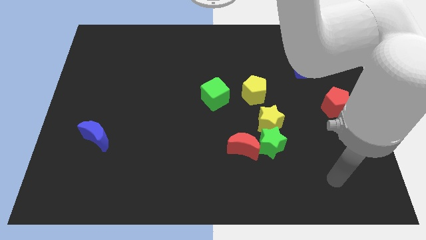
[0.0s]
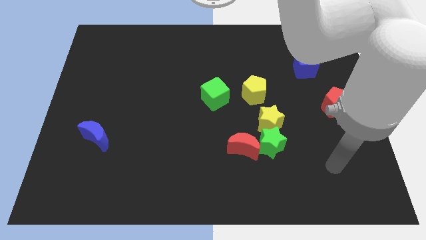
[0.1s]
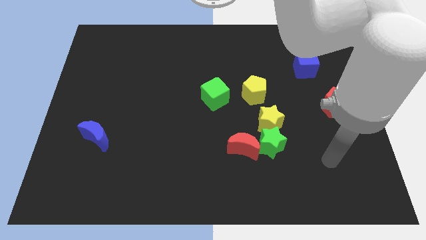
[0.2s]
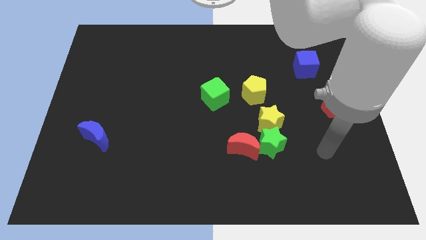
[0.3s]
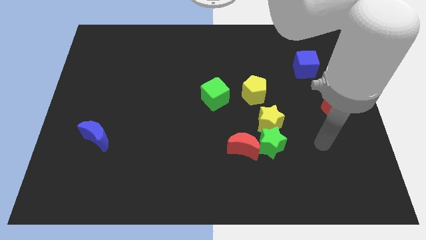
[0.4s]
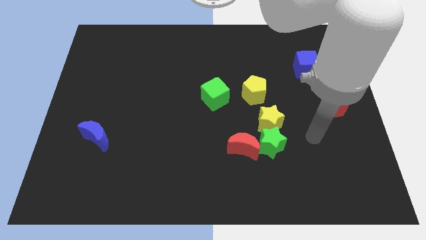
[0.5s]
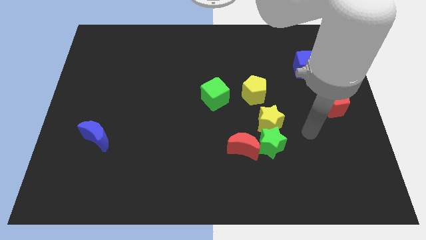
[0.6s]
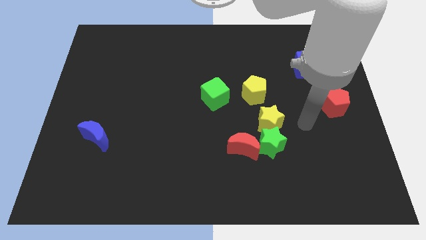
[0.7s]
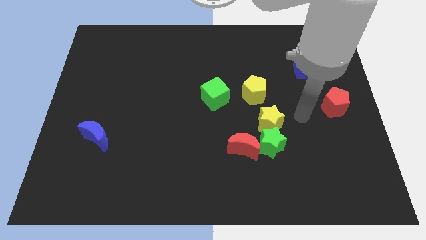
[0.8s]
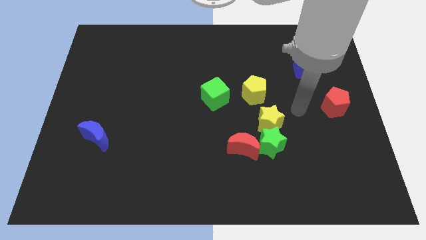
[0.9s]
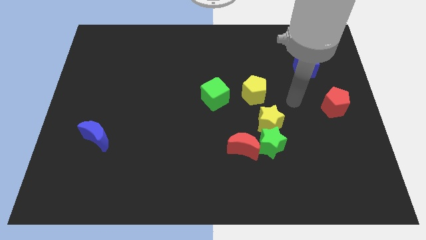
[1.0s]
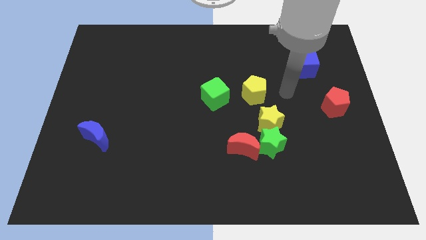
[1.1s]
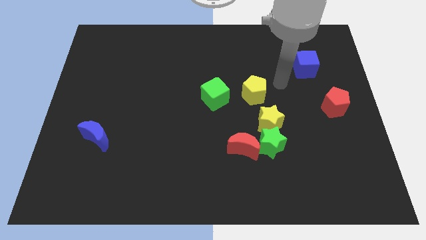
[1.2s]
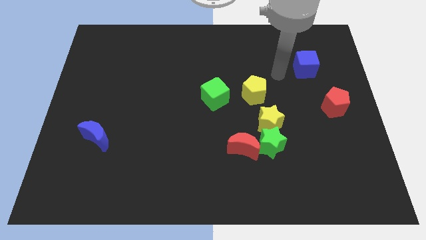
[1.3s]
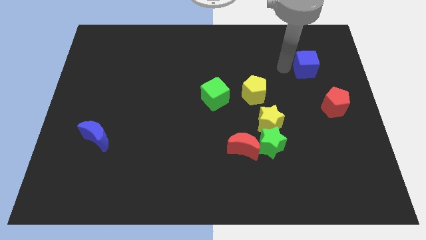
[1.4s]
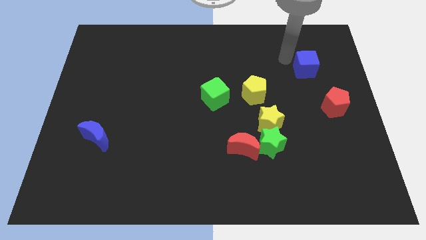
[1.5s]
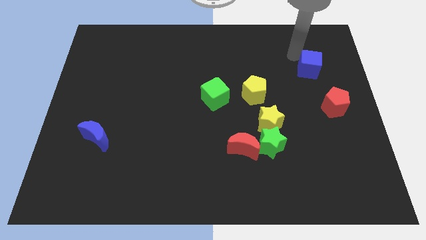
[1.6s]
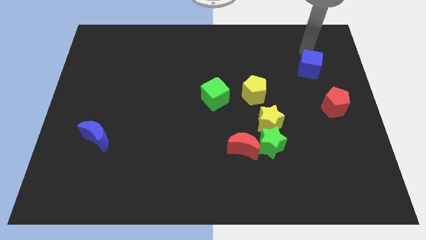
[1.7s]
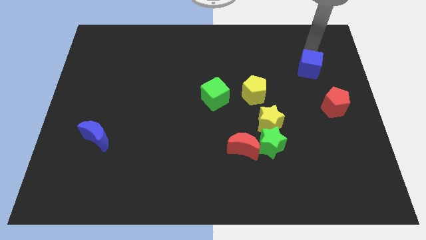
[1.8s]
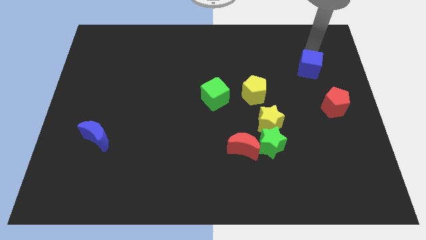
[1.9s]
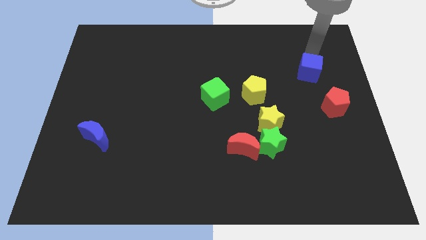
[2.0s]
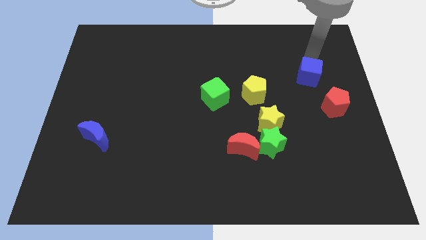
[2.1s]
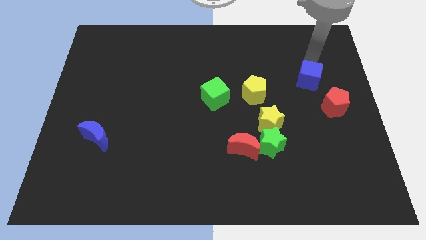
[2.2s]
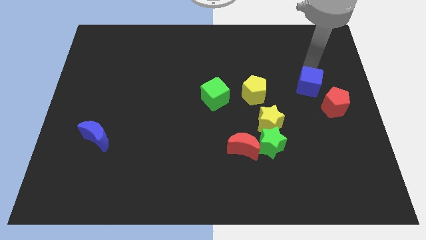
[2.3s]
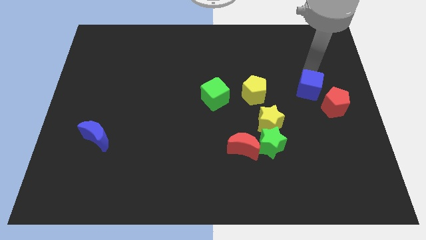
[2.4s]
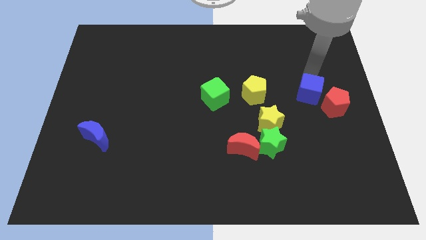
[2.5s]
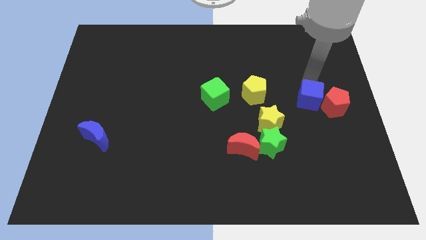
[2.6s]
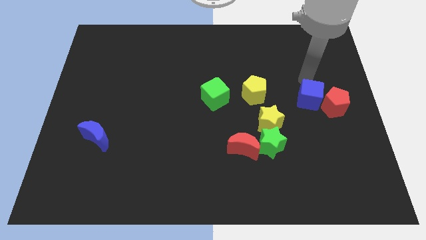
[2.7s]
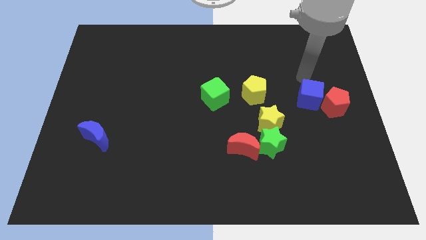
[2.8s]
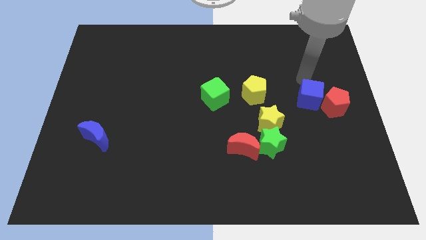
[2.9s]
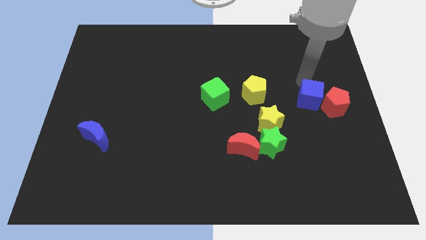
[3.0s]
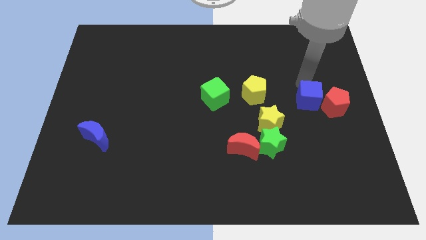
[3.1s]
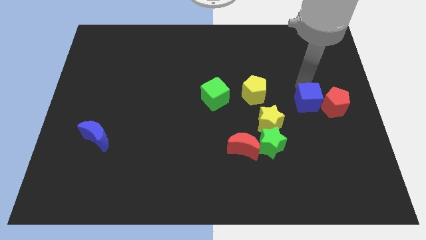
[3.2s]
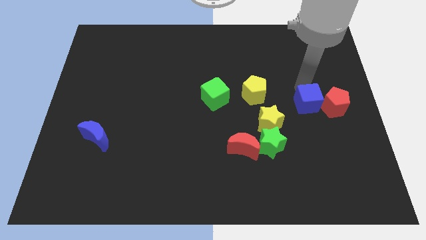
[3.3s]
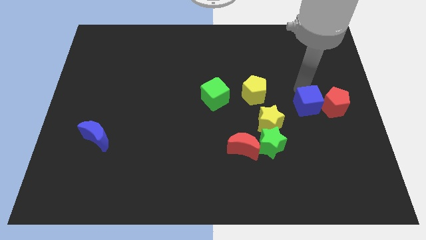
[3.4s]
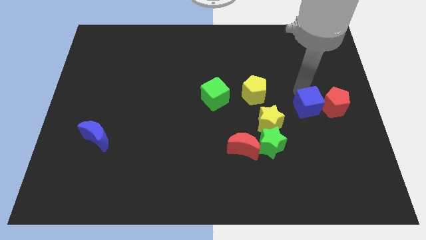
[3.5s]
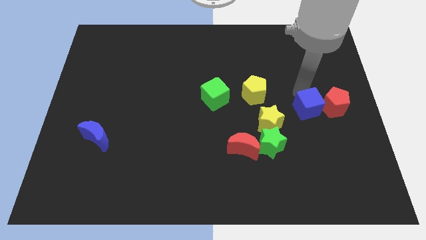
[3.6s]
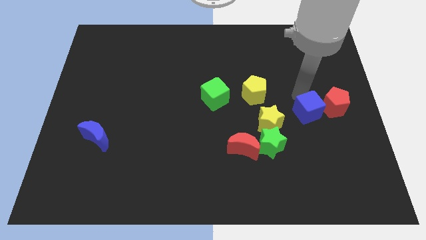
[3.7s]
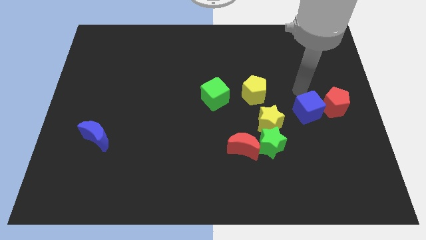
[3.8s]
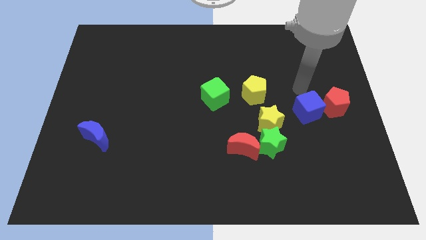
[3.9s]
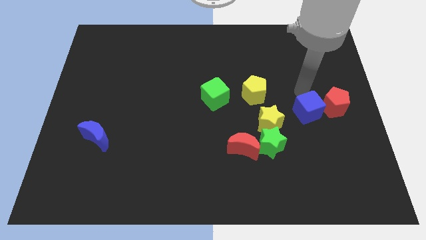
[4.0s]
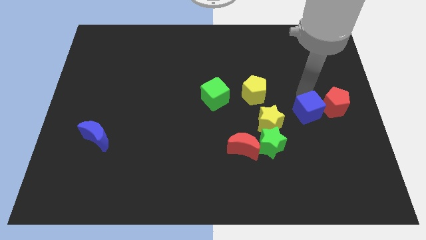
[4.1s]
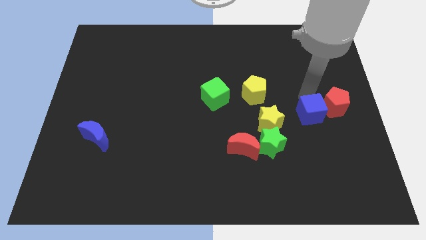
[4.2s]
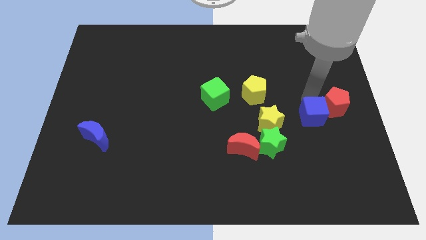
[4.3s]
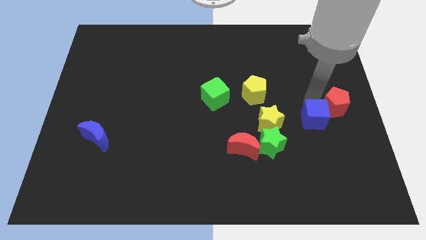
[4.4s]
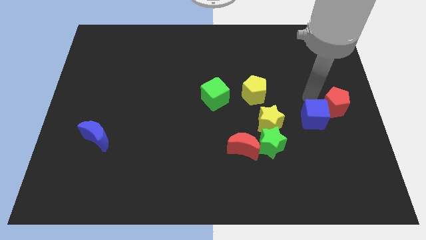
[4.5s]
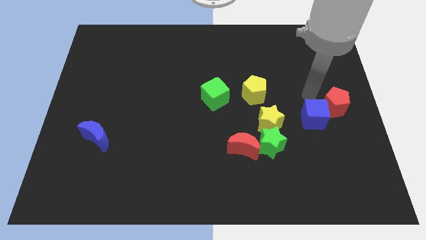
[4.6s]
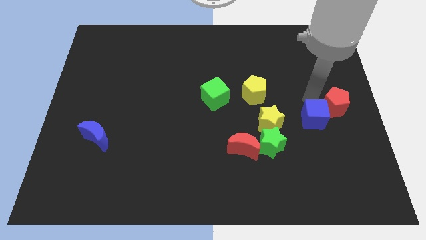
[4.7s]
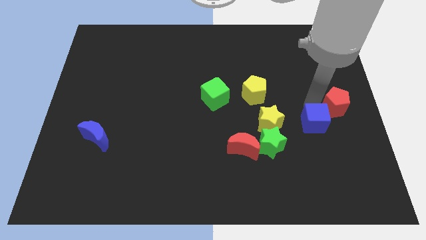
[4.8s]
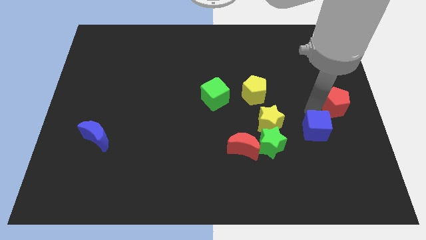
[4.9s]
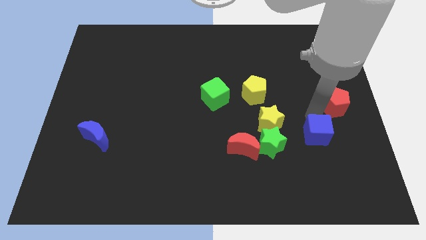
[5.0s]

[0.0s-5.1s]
move the blue cube downwards

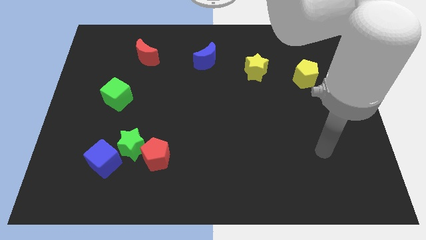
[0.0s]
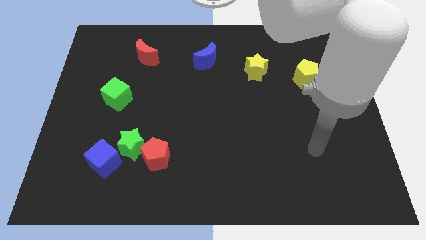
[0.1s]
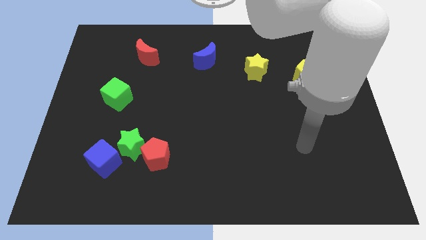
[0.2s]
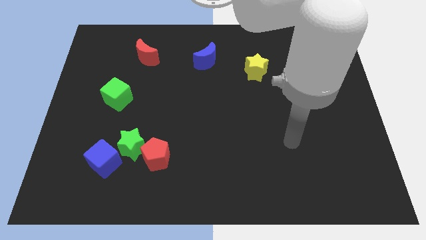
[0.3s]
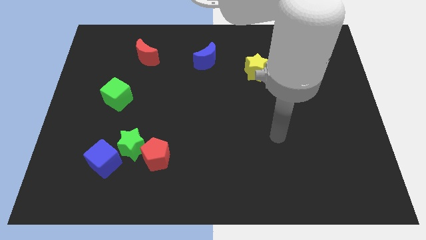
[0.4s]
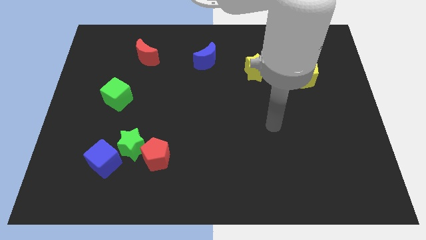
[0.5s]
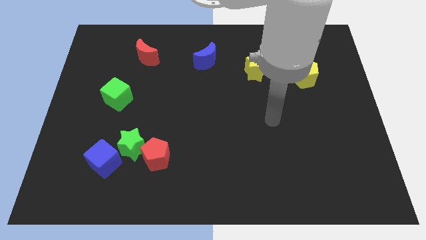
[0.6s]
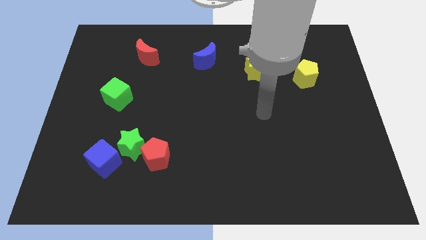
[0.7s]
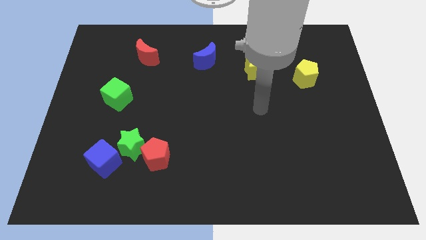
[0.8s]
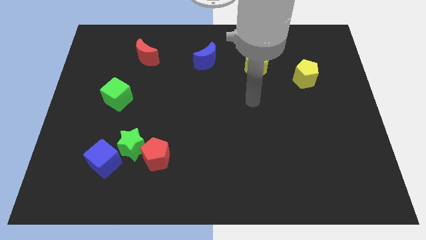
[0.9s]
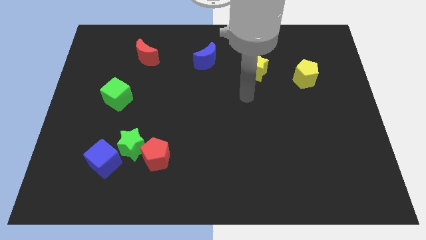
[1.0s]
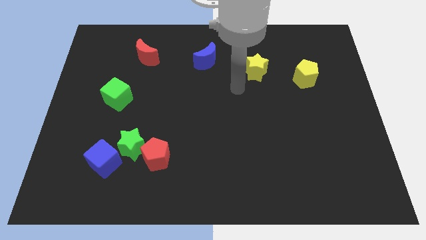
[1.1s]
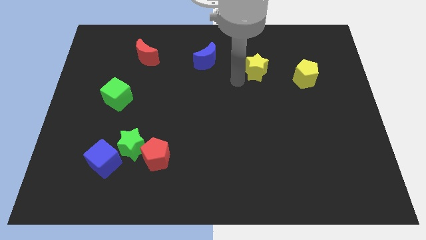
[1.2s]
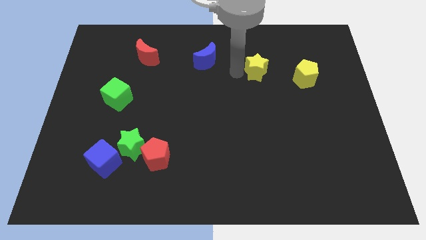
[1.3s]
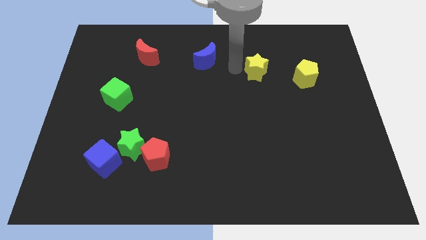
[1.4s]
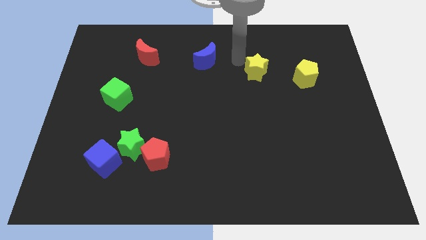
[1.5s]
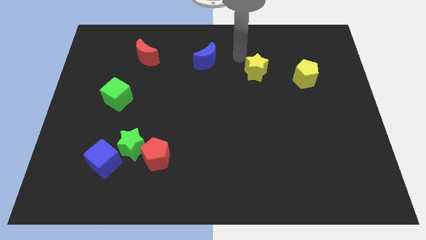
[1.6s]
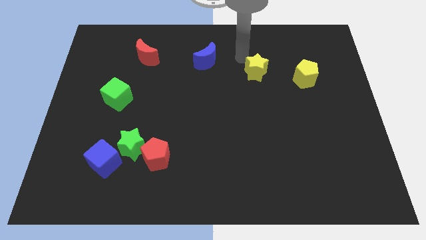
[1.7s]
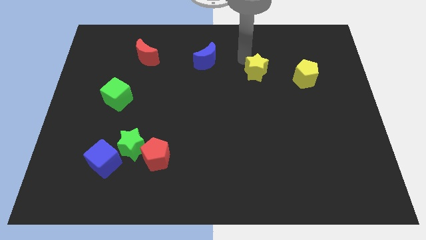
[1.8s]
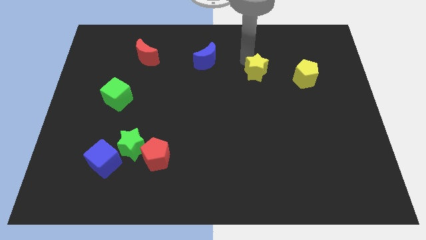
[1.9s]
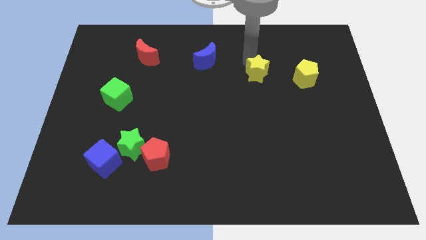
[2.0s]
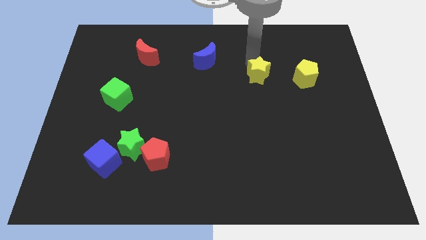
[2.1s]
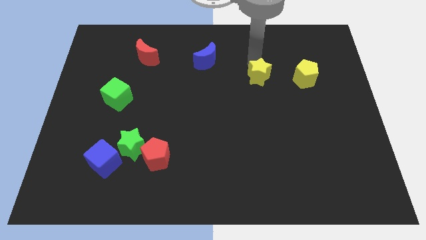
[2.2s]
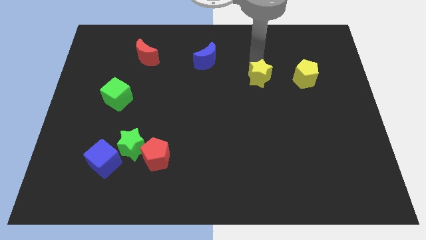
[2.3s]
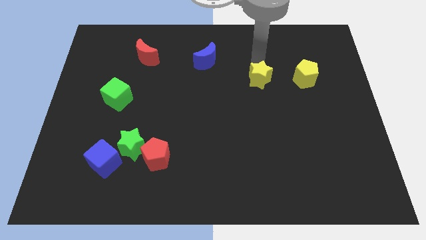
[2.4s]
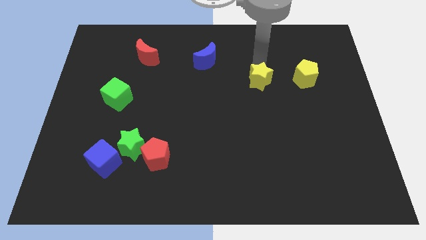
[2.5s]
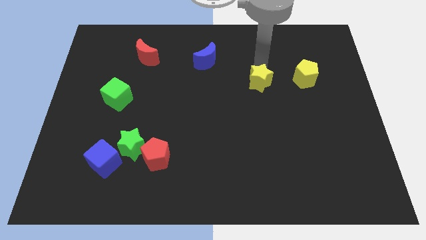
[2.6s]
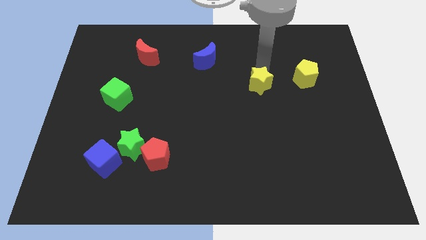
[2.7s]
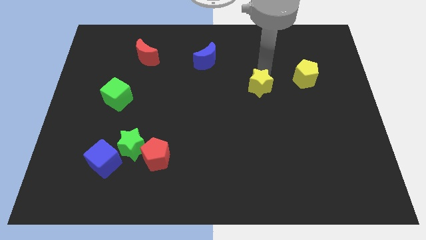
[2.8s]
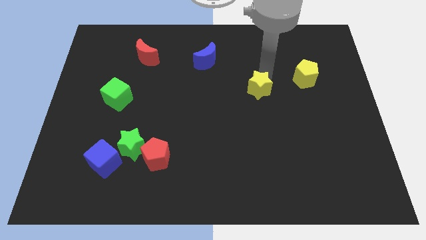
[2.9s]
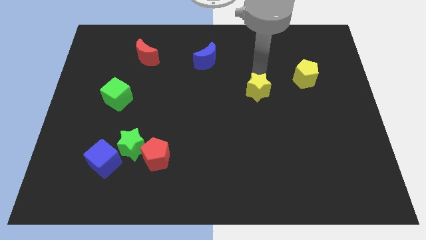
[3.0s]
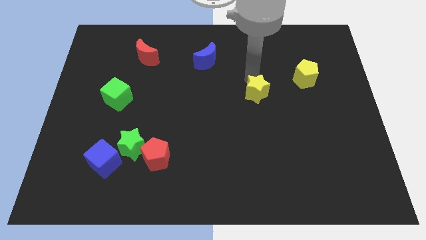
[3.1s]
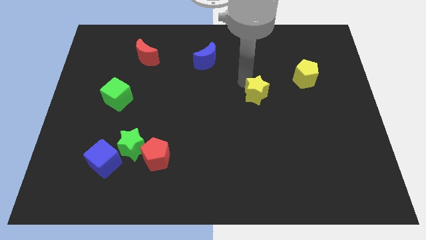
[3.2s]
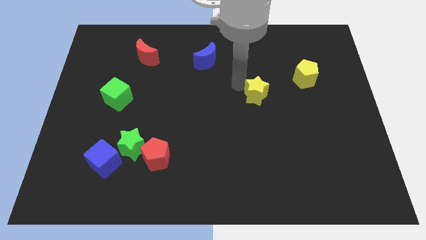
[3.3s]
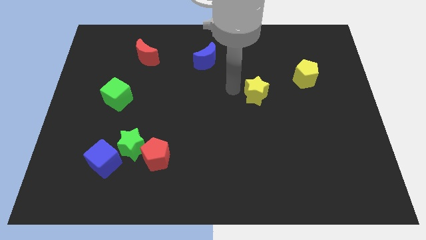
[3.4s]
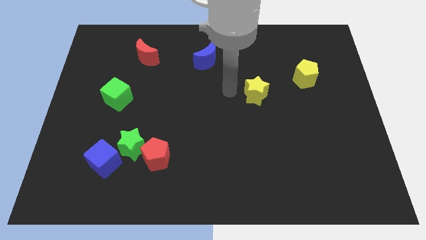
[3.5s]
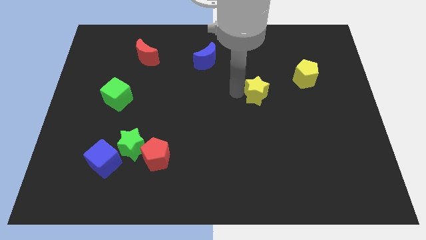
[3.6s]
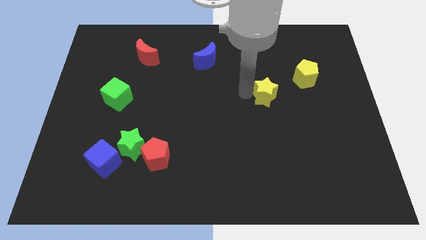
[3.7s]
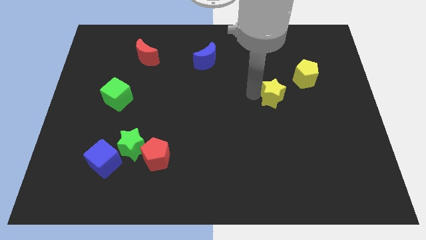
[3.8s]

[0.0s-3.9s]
push the yellow star downwards and to the right diagonally a little bit
